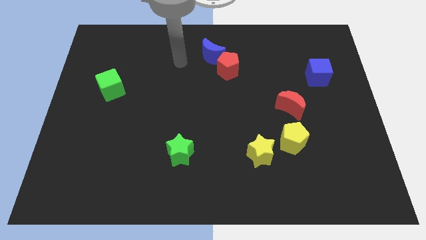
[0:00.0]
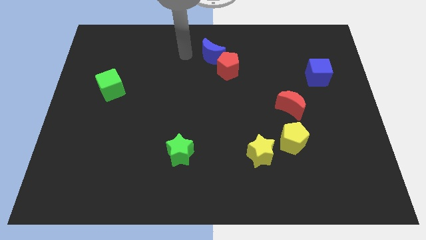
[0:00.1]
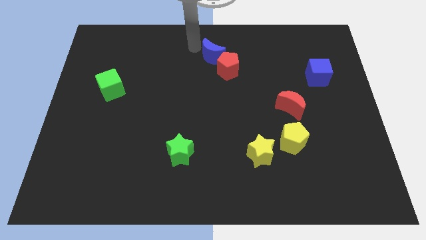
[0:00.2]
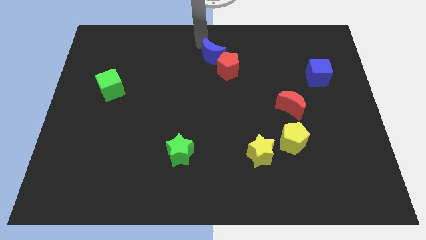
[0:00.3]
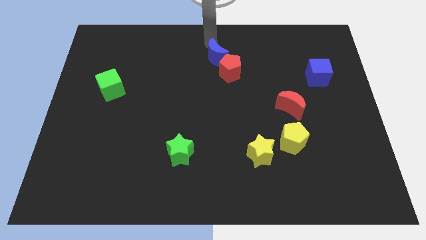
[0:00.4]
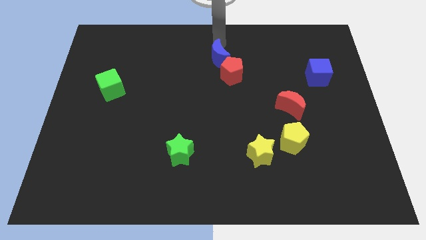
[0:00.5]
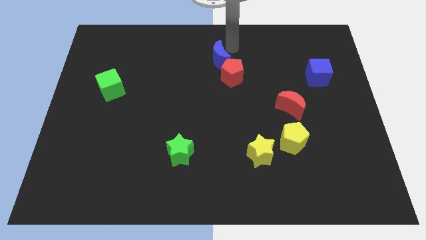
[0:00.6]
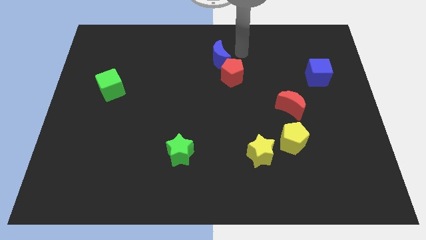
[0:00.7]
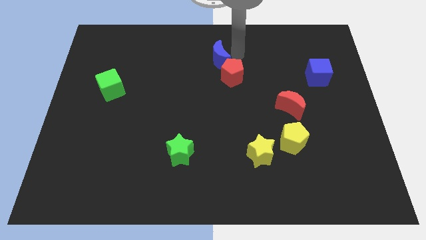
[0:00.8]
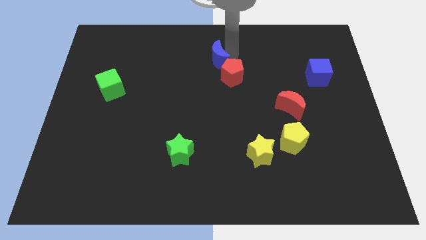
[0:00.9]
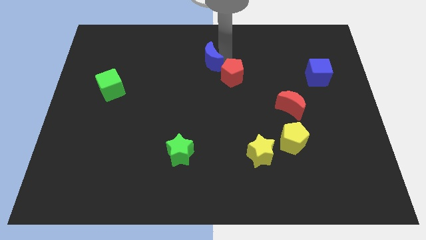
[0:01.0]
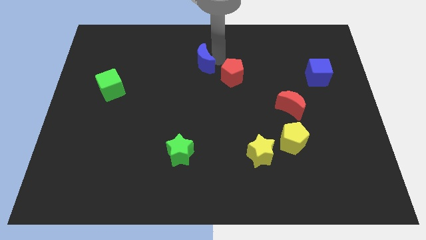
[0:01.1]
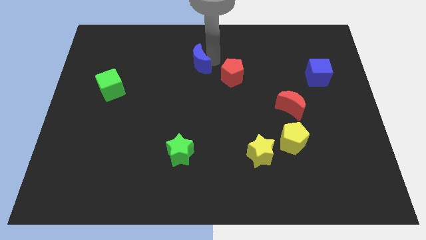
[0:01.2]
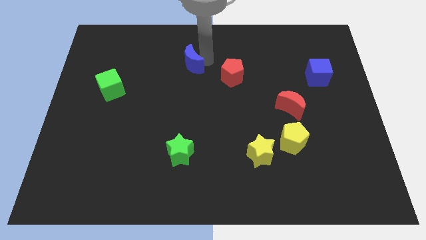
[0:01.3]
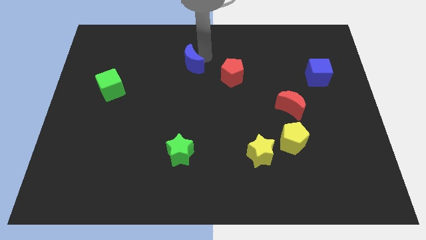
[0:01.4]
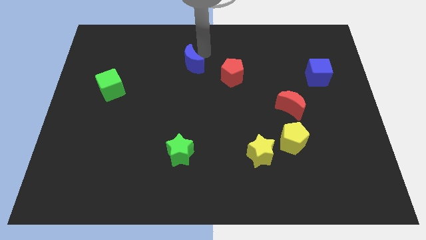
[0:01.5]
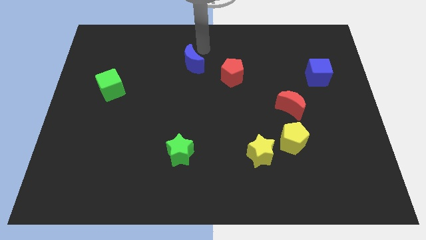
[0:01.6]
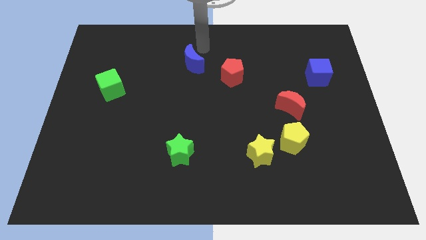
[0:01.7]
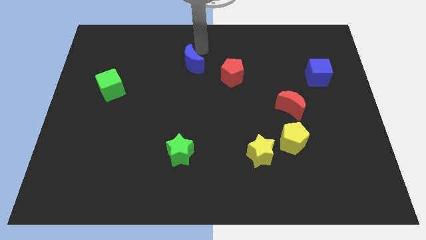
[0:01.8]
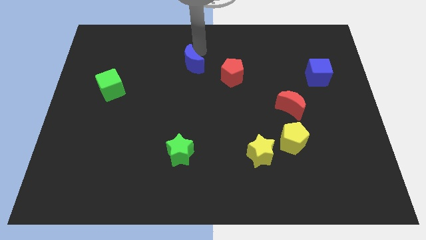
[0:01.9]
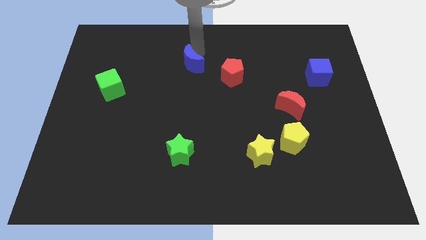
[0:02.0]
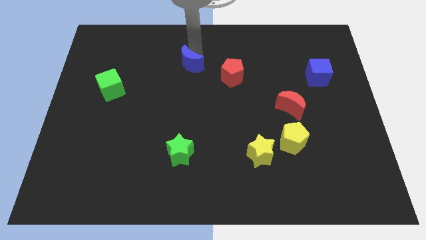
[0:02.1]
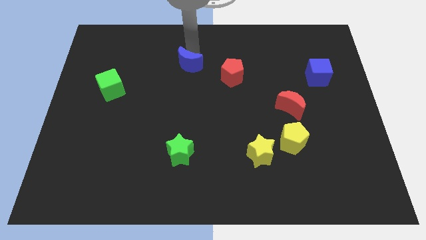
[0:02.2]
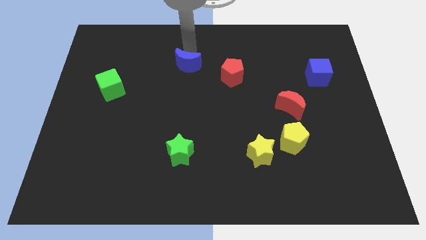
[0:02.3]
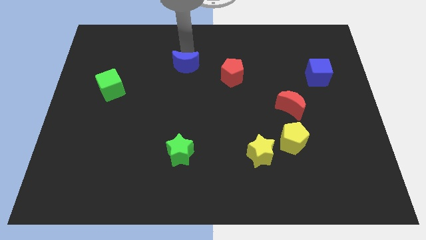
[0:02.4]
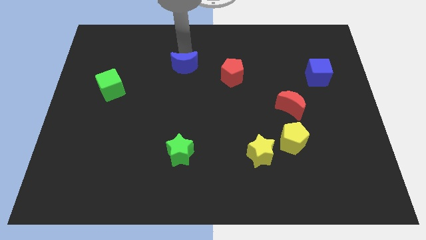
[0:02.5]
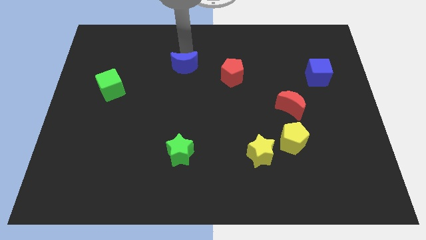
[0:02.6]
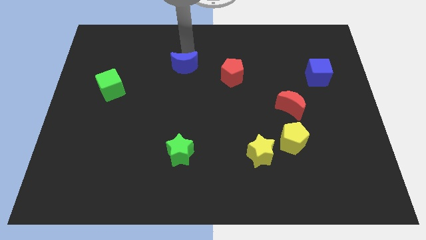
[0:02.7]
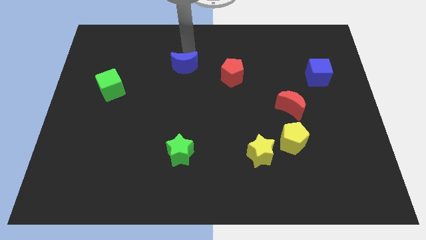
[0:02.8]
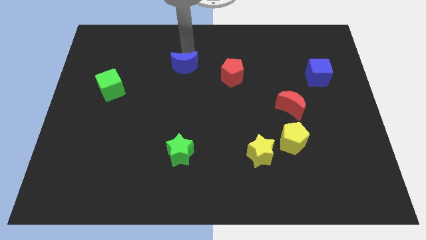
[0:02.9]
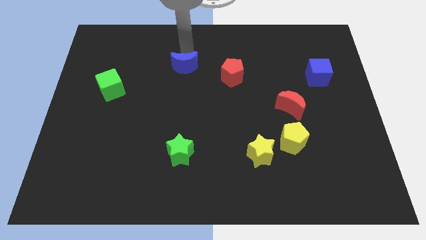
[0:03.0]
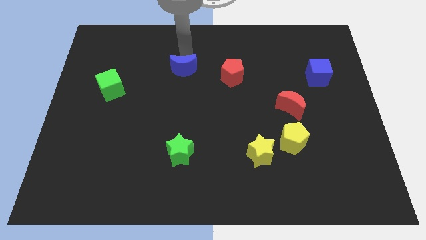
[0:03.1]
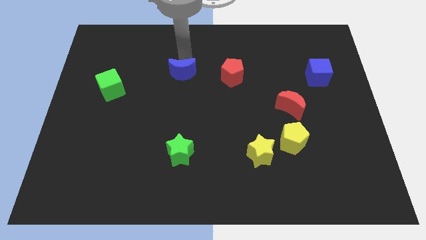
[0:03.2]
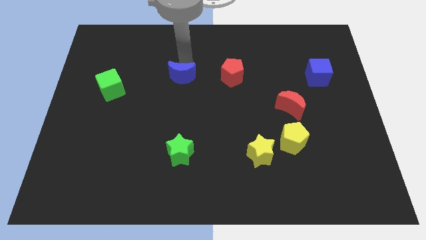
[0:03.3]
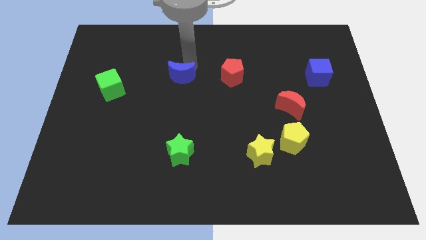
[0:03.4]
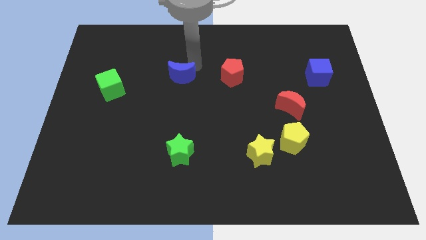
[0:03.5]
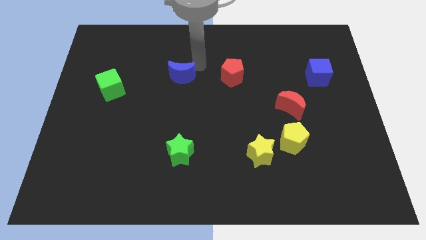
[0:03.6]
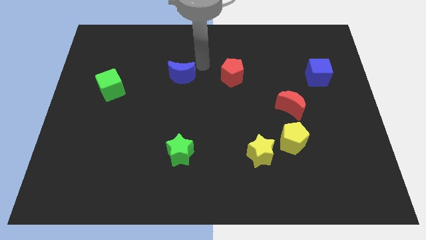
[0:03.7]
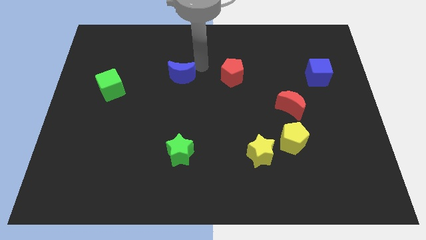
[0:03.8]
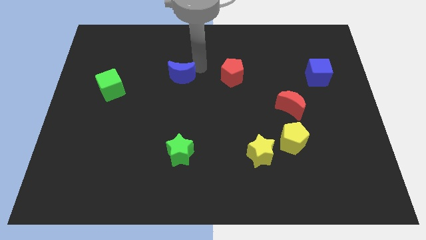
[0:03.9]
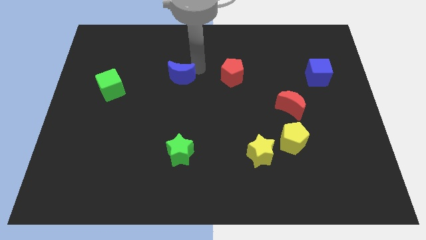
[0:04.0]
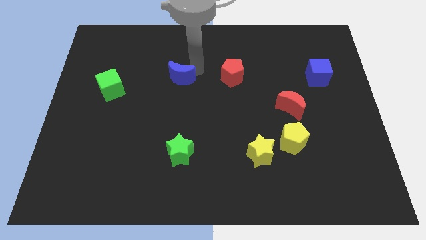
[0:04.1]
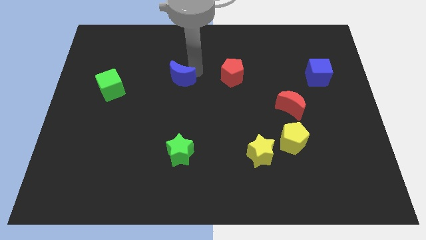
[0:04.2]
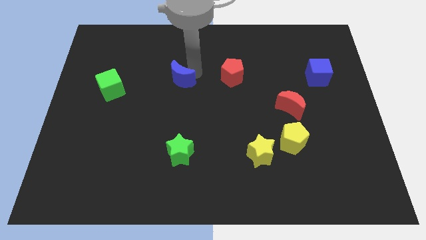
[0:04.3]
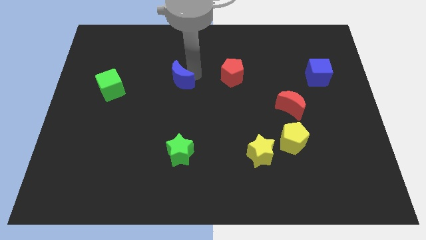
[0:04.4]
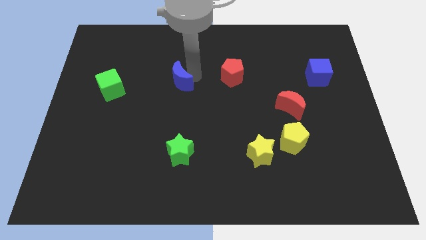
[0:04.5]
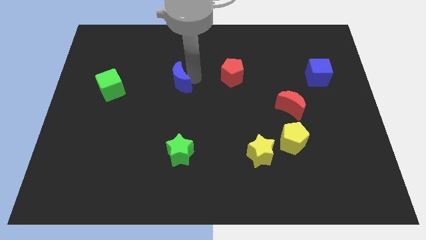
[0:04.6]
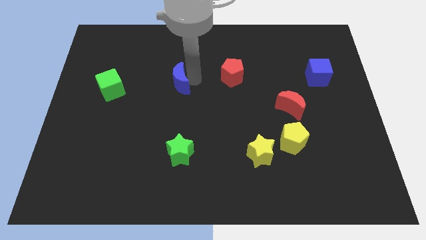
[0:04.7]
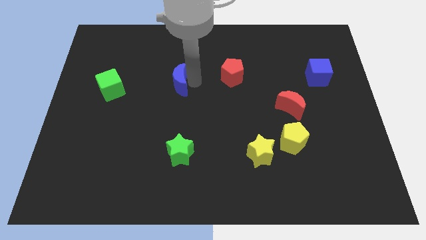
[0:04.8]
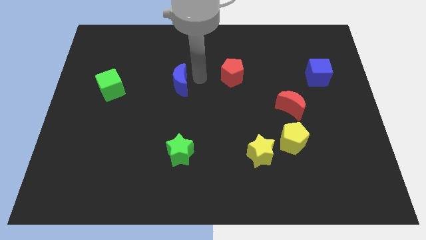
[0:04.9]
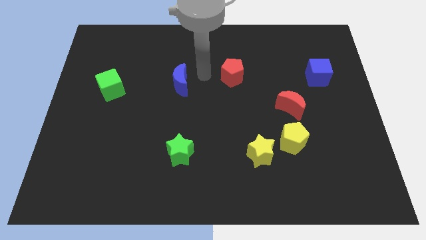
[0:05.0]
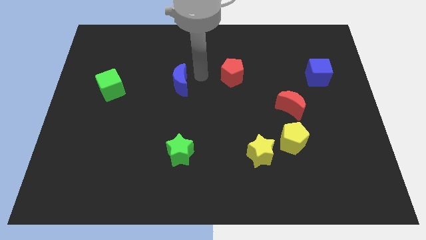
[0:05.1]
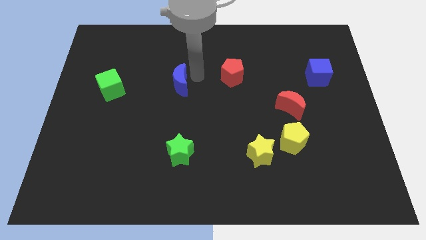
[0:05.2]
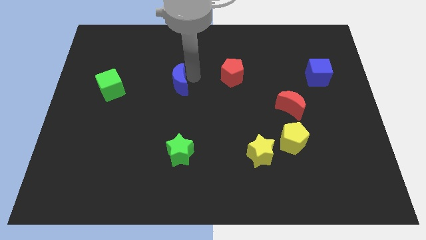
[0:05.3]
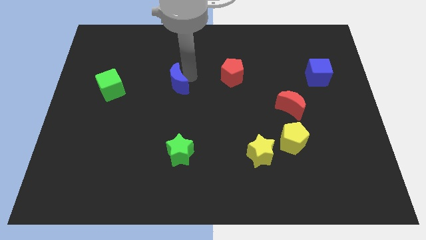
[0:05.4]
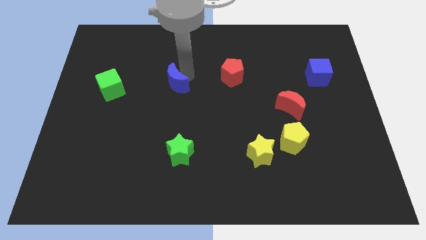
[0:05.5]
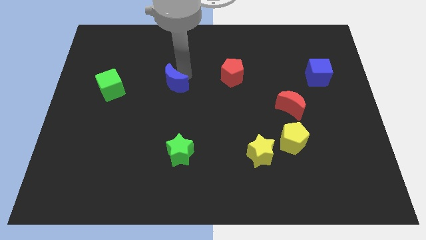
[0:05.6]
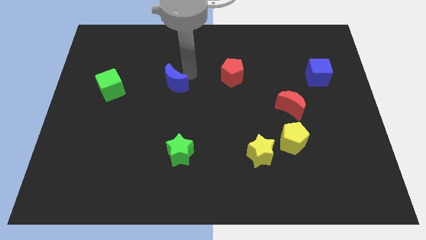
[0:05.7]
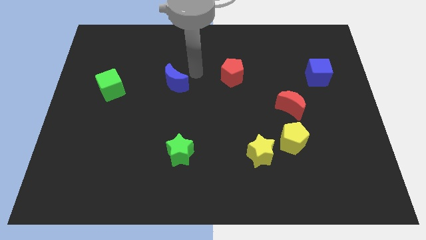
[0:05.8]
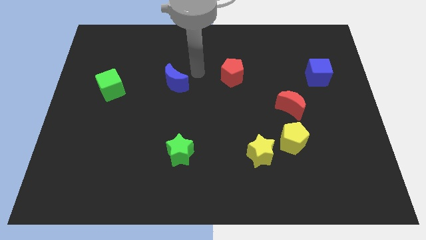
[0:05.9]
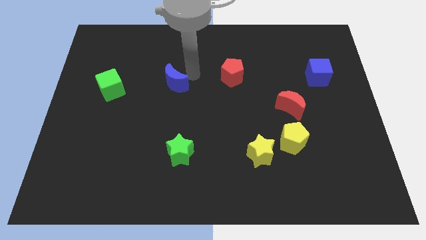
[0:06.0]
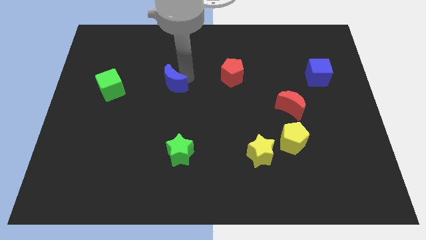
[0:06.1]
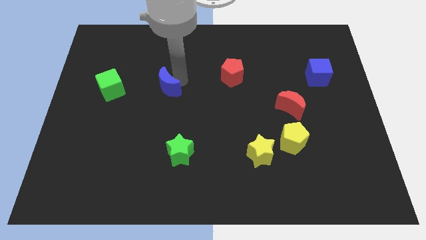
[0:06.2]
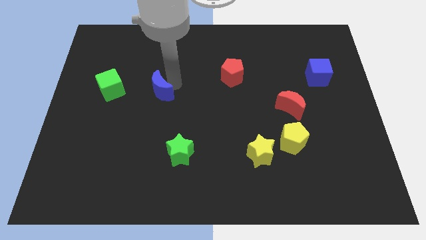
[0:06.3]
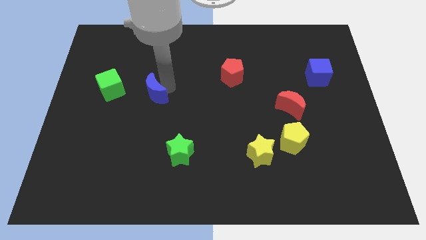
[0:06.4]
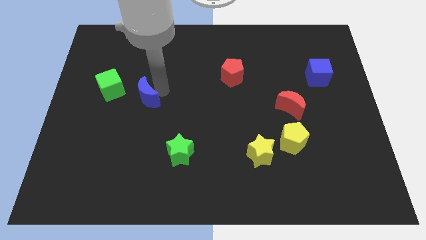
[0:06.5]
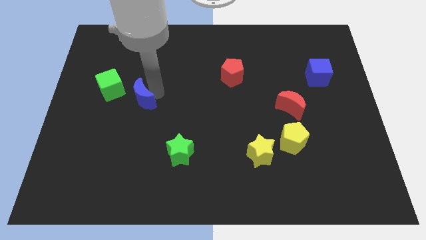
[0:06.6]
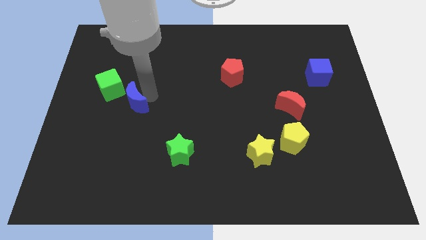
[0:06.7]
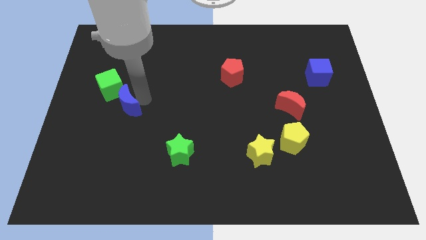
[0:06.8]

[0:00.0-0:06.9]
put the blue moon to the bottom of the green cube
